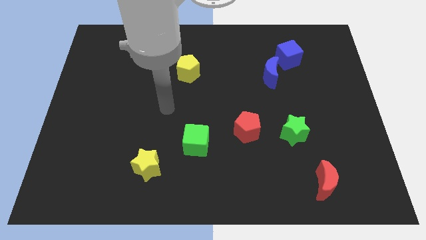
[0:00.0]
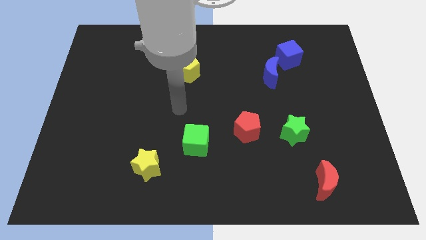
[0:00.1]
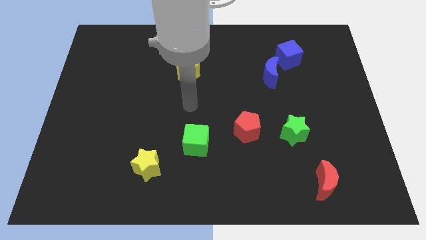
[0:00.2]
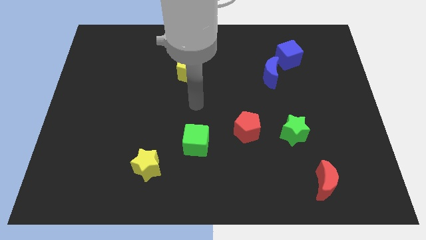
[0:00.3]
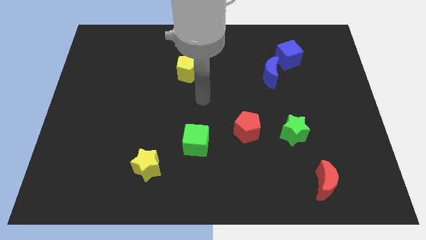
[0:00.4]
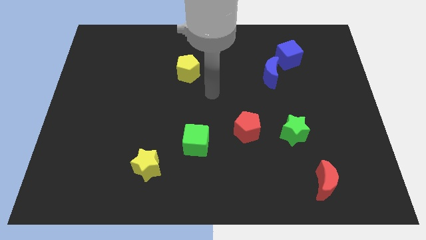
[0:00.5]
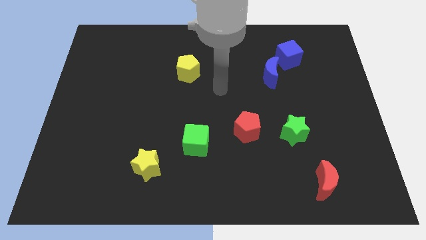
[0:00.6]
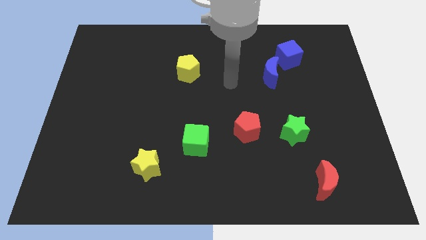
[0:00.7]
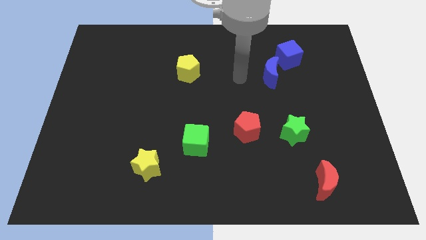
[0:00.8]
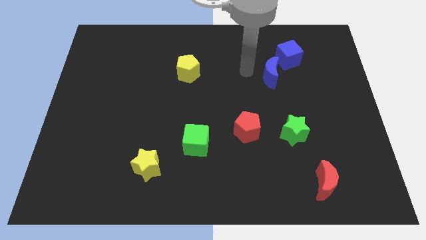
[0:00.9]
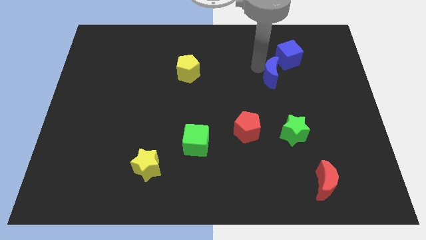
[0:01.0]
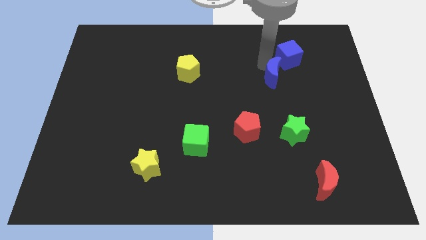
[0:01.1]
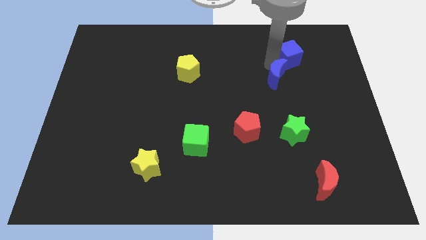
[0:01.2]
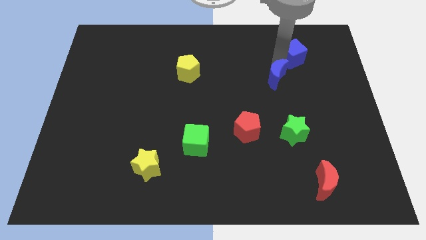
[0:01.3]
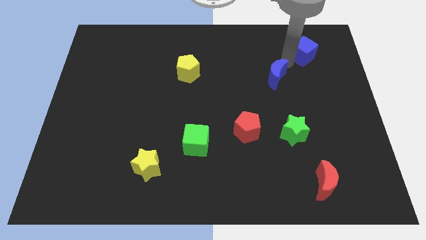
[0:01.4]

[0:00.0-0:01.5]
move the blue moon away from the blue cube

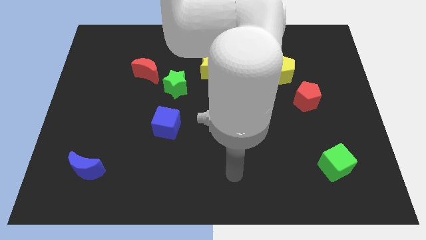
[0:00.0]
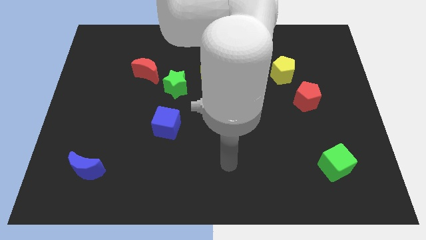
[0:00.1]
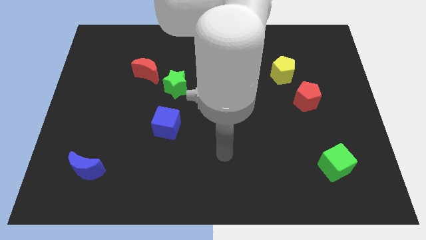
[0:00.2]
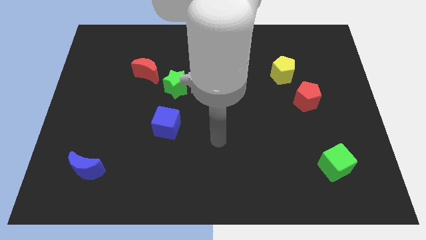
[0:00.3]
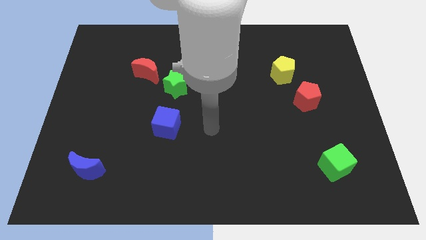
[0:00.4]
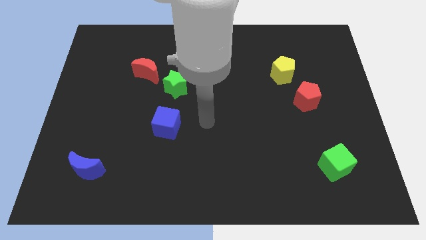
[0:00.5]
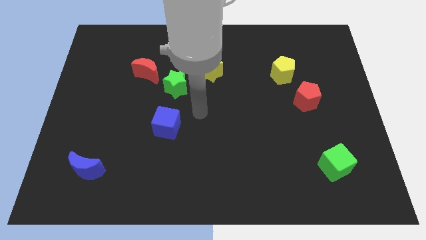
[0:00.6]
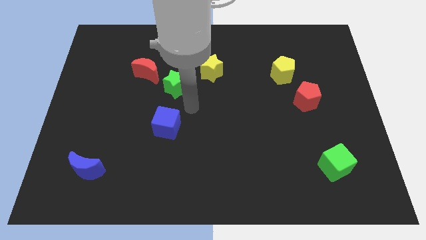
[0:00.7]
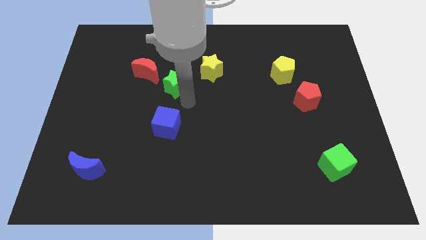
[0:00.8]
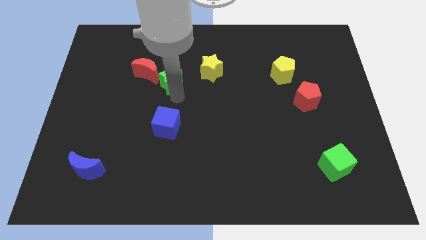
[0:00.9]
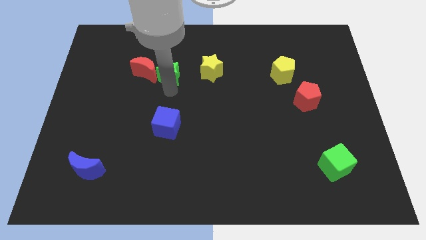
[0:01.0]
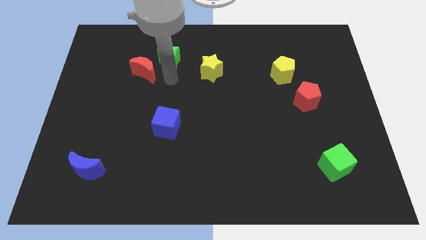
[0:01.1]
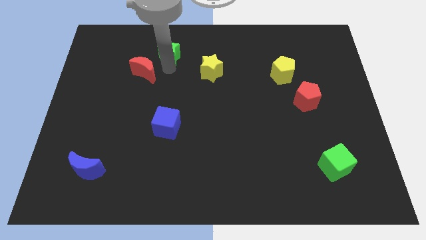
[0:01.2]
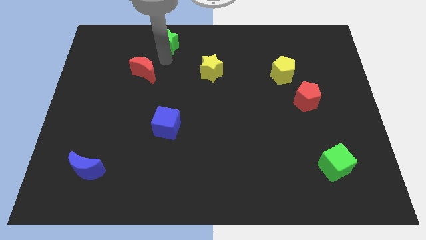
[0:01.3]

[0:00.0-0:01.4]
pull the red moon apart from the green star

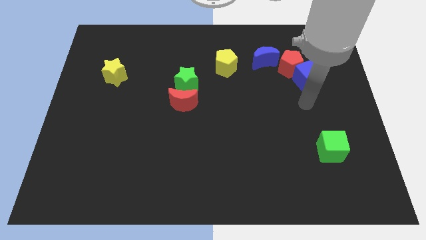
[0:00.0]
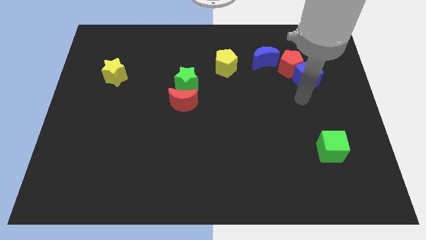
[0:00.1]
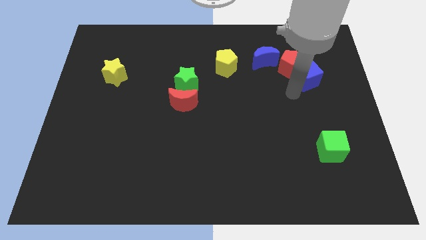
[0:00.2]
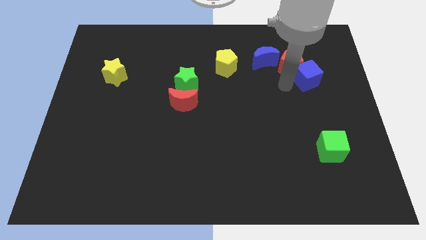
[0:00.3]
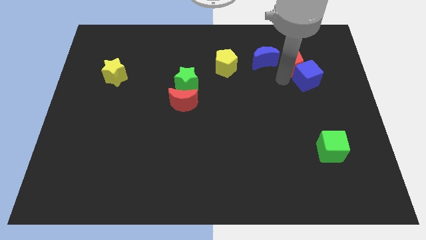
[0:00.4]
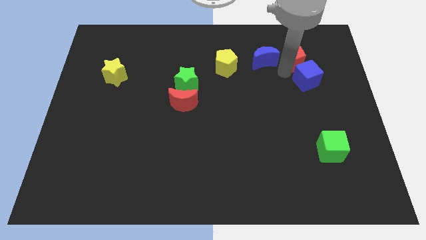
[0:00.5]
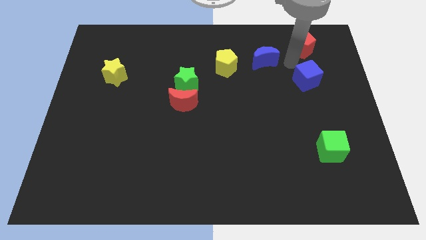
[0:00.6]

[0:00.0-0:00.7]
move the blue cube away from the red pentagon

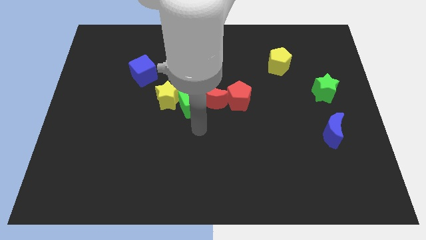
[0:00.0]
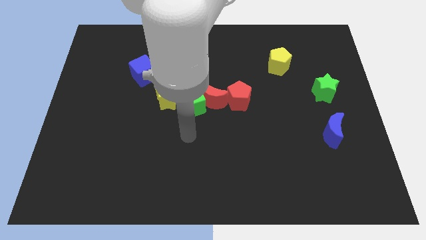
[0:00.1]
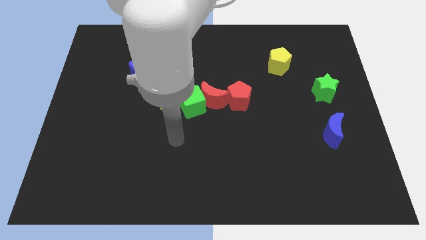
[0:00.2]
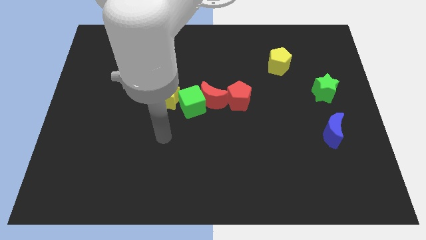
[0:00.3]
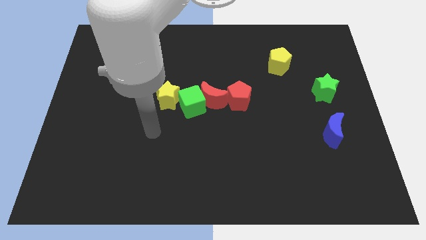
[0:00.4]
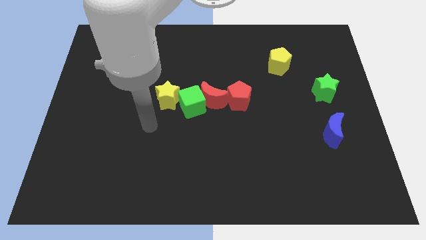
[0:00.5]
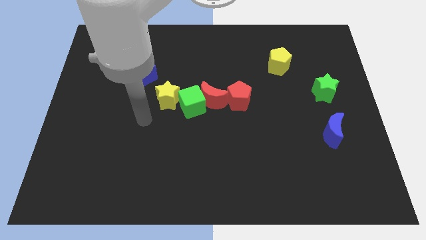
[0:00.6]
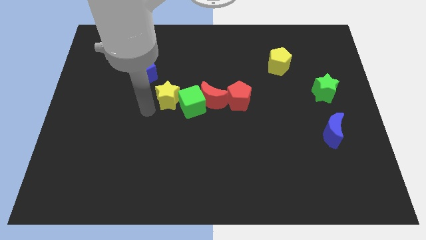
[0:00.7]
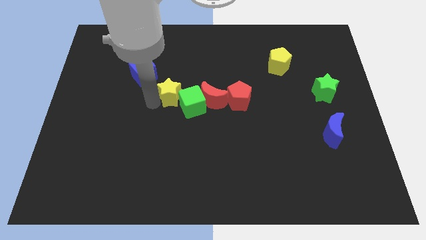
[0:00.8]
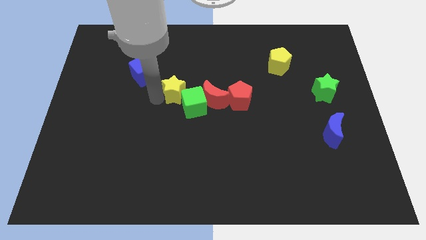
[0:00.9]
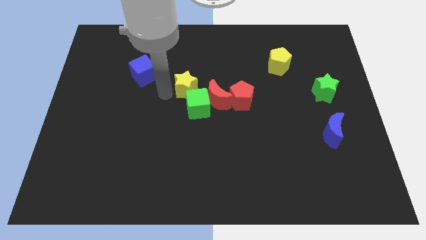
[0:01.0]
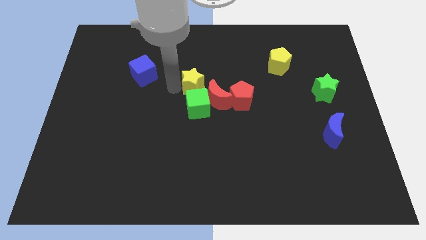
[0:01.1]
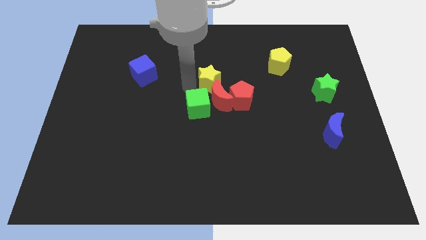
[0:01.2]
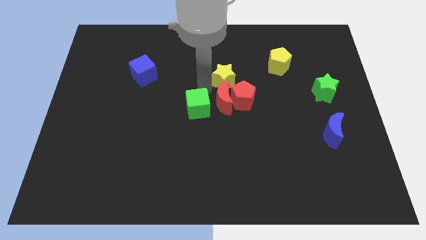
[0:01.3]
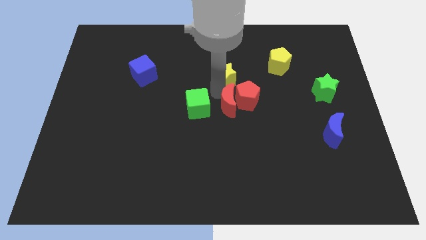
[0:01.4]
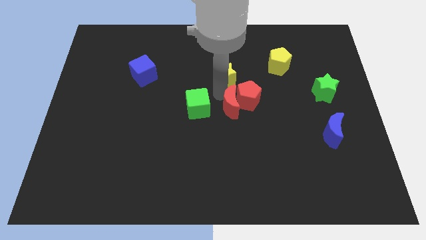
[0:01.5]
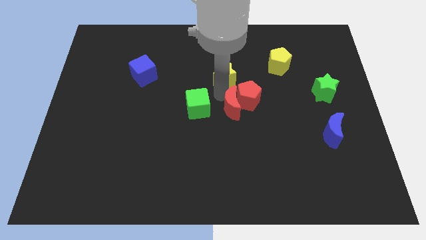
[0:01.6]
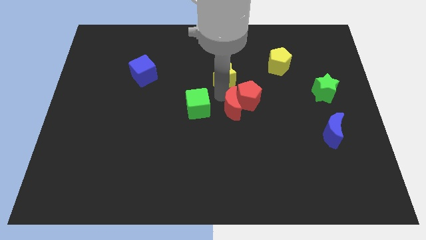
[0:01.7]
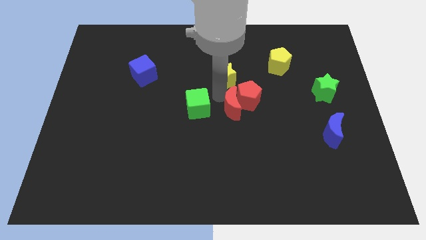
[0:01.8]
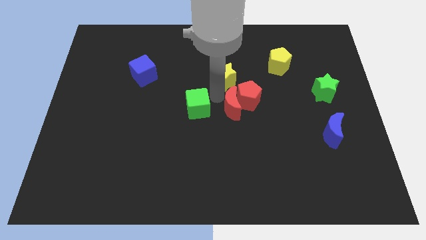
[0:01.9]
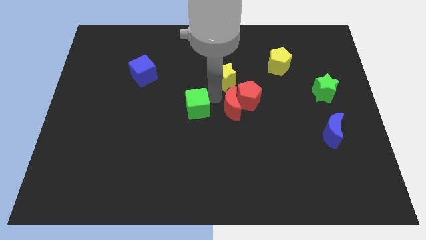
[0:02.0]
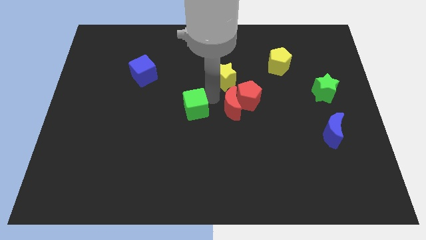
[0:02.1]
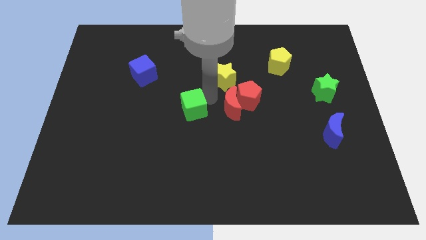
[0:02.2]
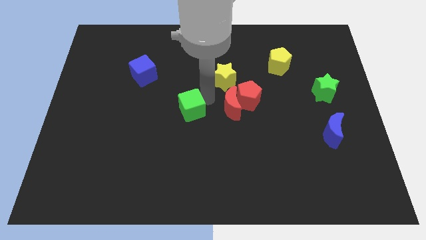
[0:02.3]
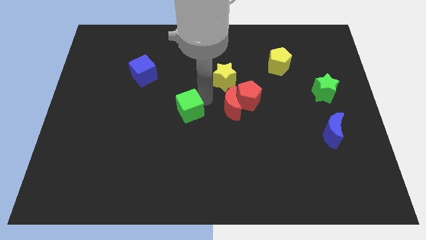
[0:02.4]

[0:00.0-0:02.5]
separate the green cube from the red moon and yellow star

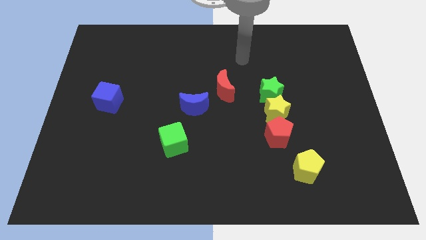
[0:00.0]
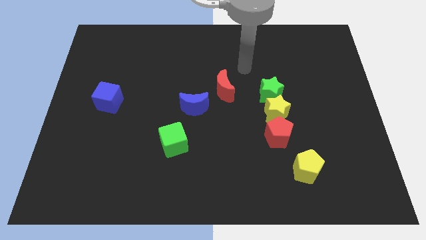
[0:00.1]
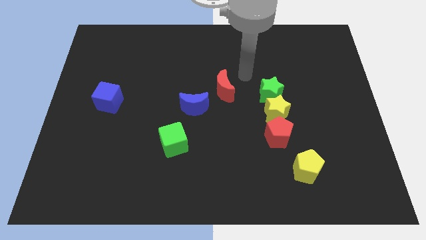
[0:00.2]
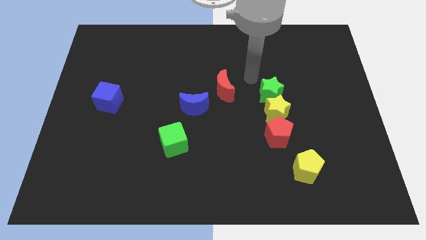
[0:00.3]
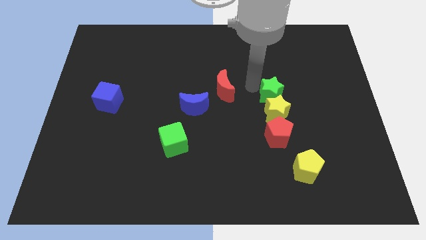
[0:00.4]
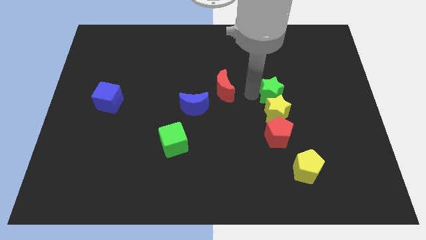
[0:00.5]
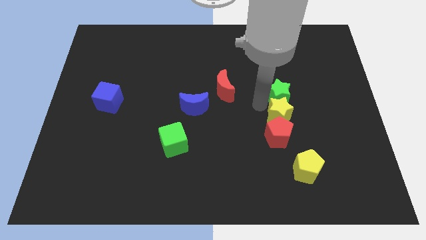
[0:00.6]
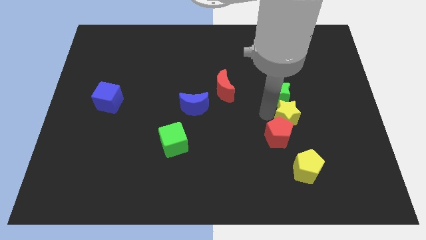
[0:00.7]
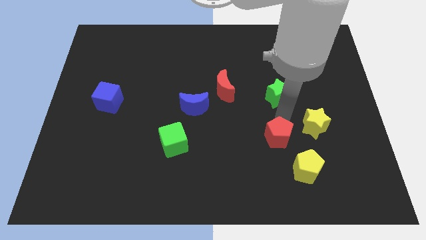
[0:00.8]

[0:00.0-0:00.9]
pull the green star apart from the yellow star

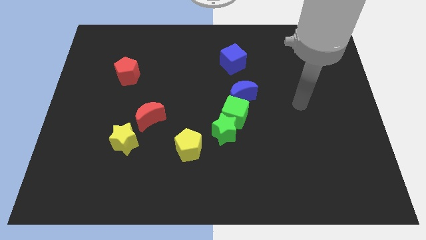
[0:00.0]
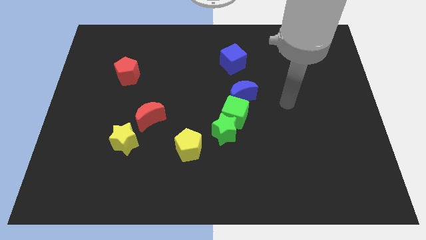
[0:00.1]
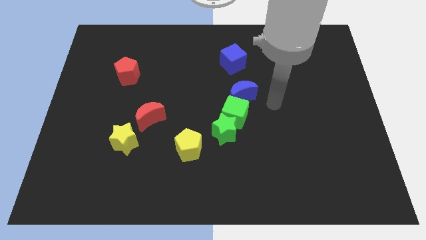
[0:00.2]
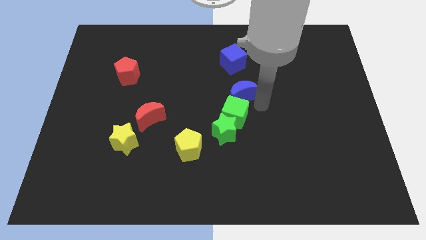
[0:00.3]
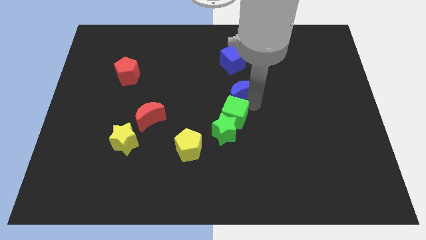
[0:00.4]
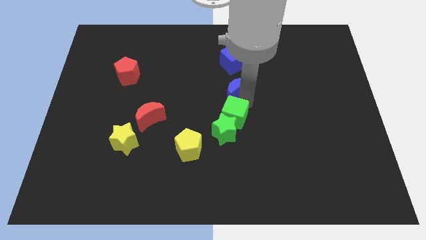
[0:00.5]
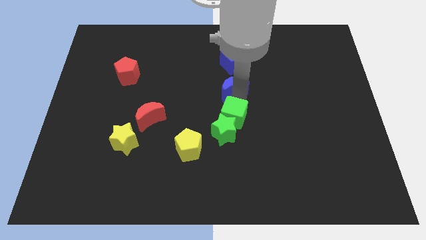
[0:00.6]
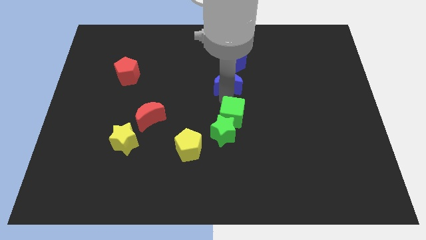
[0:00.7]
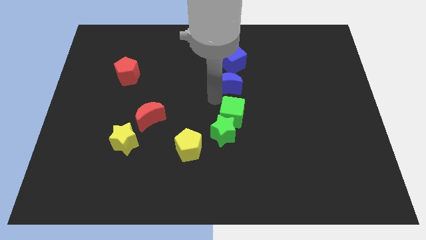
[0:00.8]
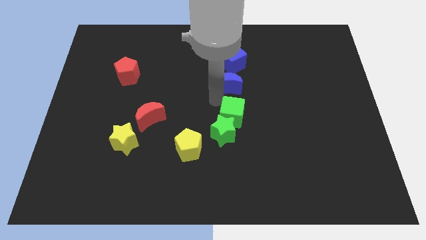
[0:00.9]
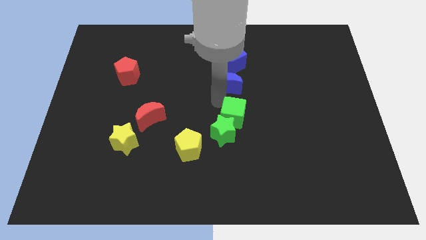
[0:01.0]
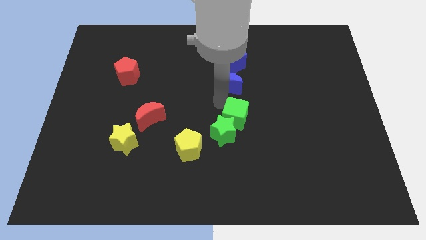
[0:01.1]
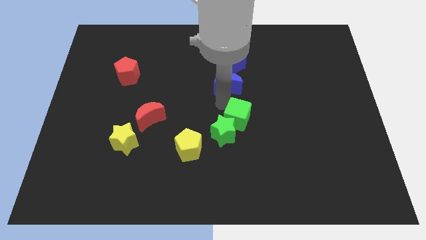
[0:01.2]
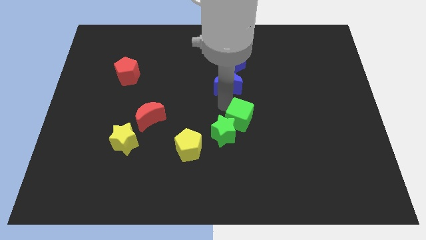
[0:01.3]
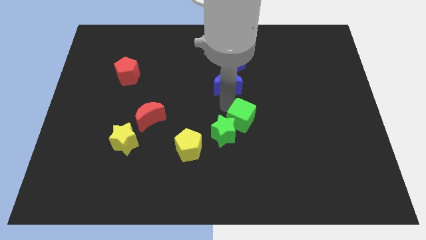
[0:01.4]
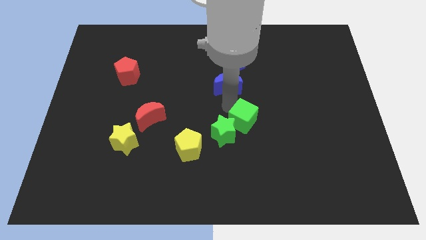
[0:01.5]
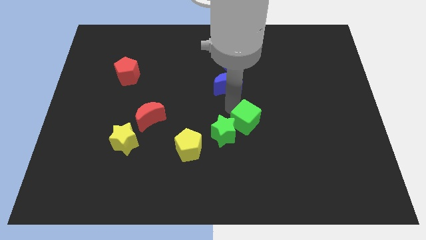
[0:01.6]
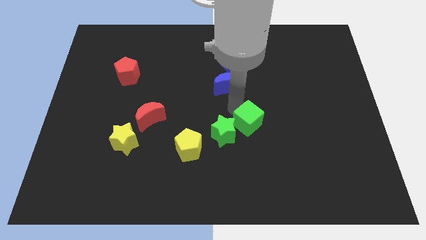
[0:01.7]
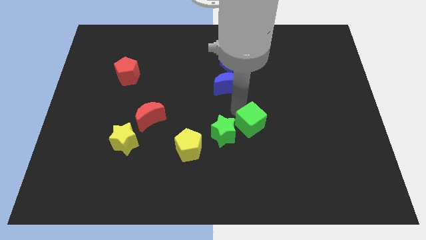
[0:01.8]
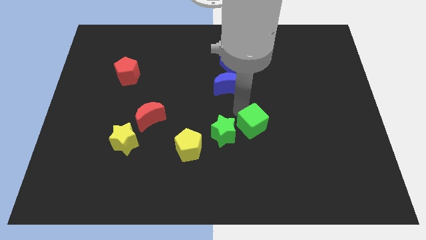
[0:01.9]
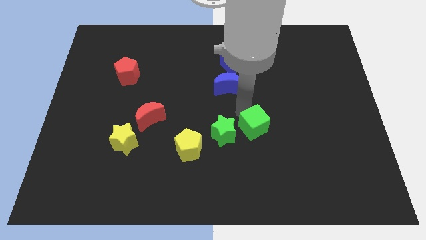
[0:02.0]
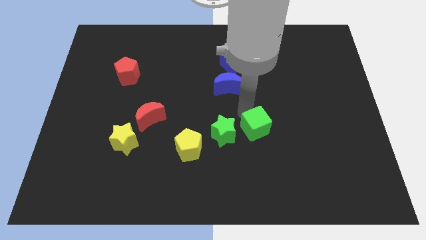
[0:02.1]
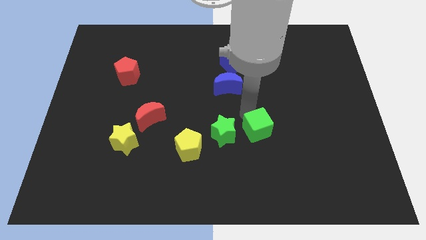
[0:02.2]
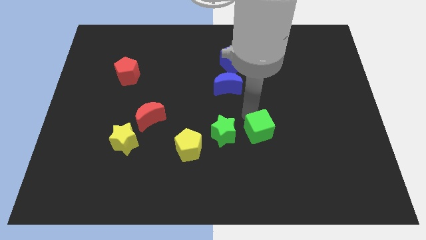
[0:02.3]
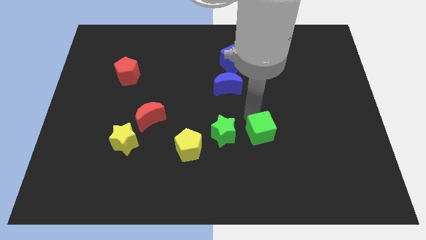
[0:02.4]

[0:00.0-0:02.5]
pull the green cube apart from the green star and blue moon
